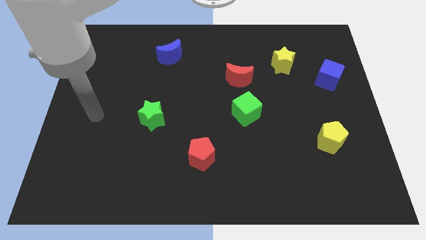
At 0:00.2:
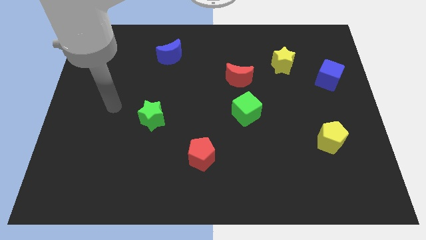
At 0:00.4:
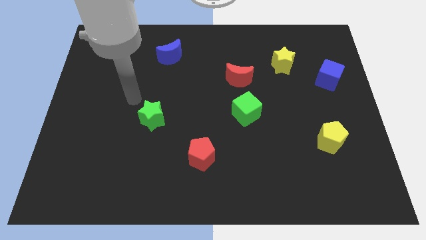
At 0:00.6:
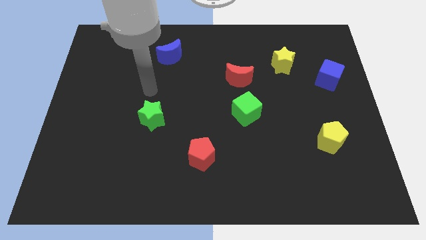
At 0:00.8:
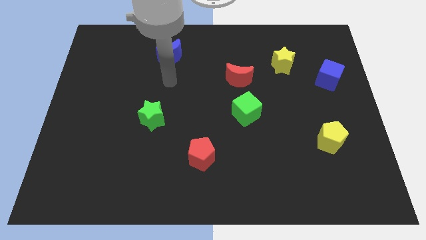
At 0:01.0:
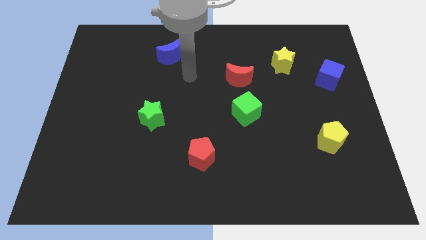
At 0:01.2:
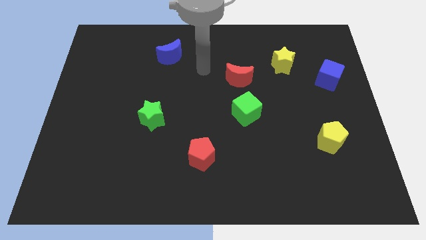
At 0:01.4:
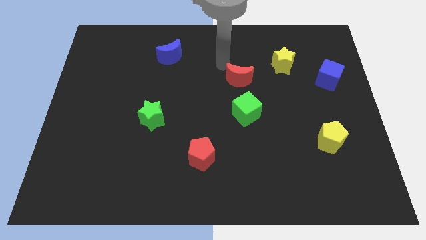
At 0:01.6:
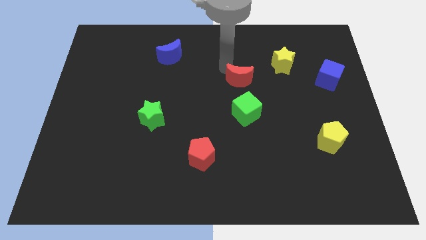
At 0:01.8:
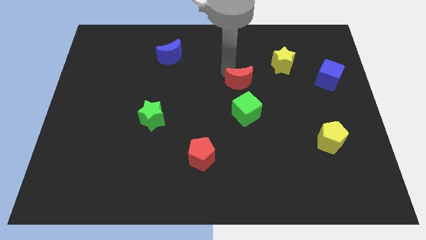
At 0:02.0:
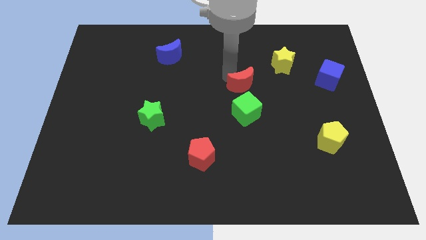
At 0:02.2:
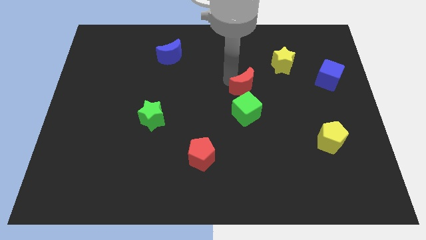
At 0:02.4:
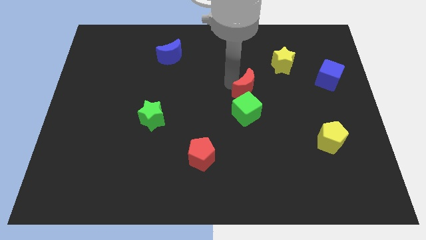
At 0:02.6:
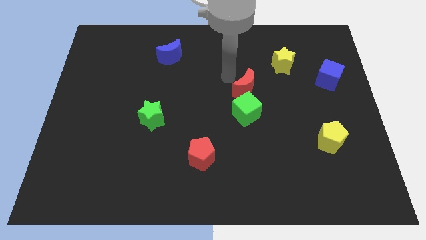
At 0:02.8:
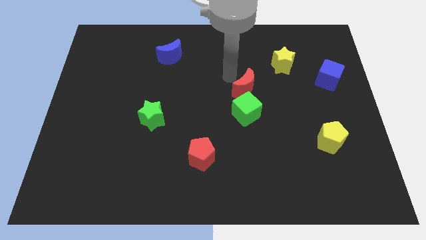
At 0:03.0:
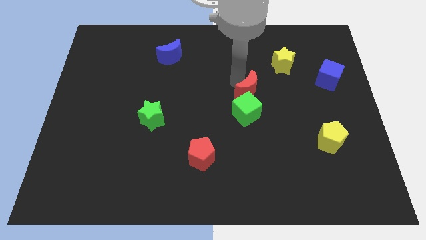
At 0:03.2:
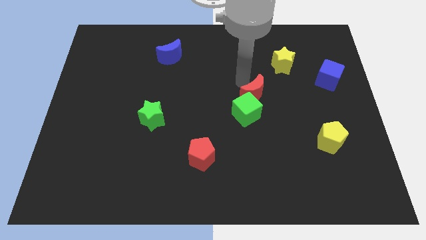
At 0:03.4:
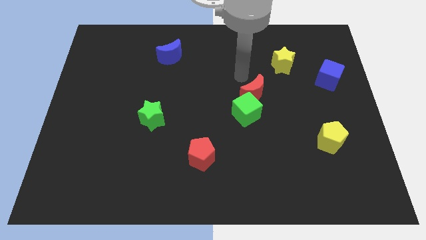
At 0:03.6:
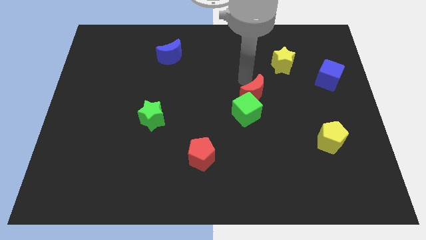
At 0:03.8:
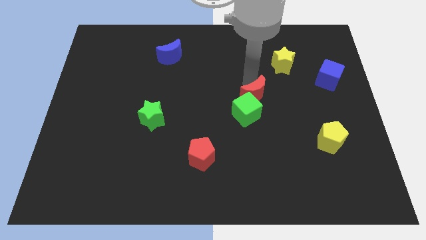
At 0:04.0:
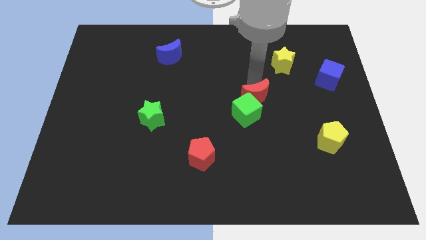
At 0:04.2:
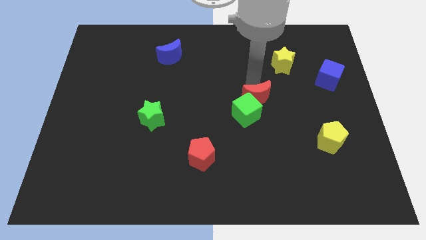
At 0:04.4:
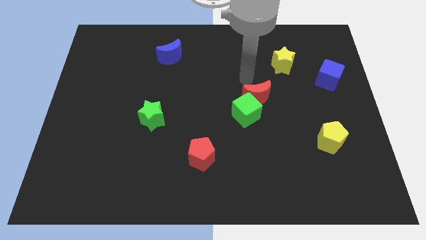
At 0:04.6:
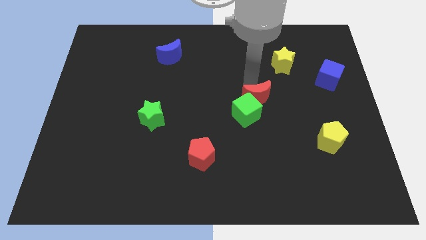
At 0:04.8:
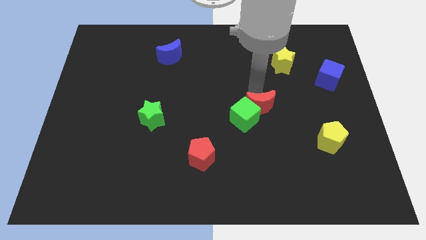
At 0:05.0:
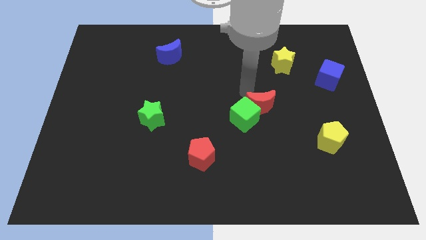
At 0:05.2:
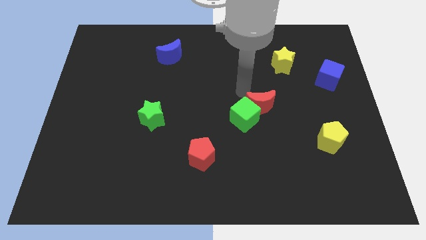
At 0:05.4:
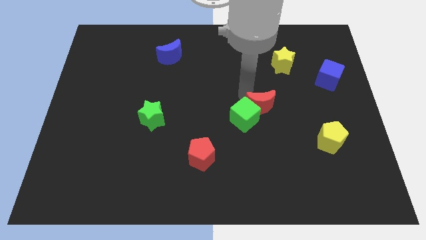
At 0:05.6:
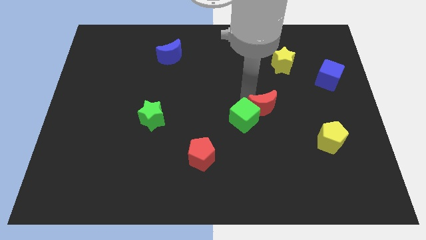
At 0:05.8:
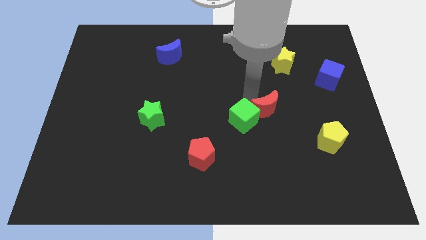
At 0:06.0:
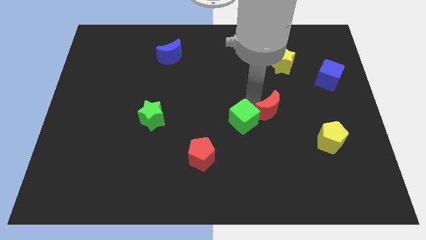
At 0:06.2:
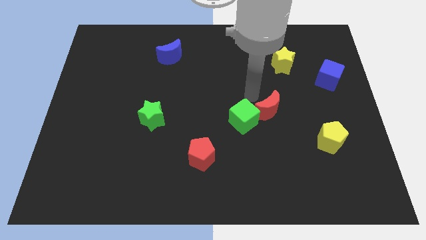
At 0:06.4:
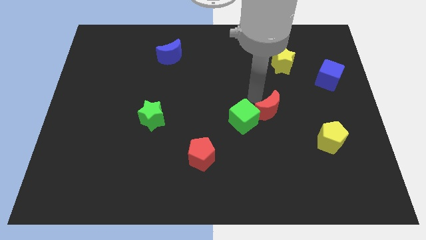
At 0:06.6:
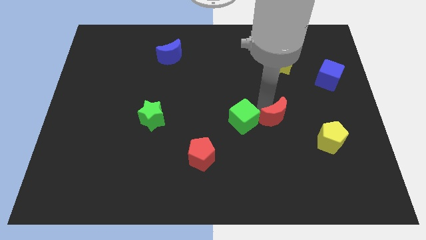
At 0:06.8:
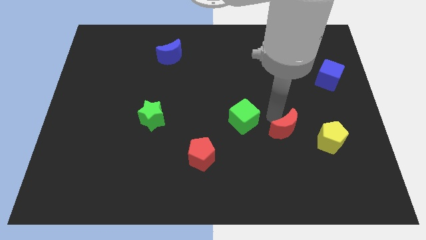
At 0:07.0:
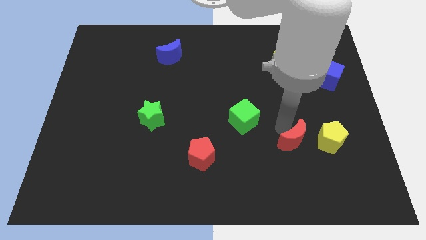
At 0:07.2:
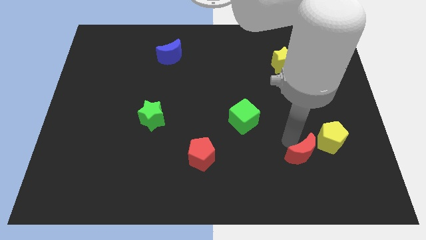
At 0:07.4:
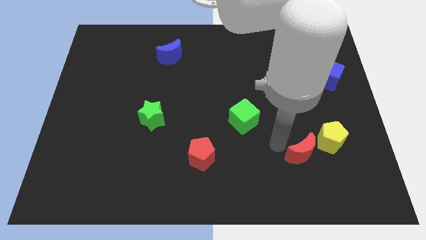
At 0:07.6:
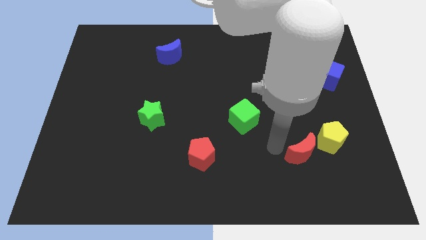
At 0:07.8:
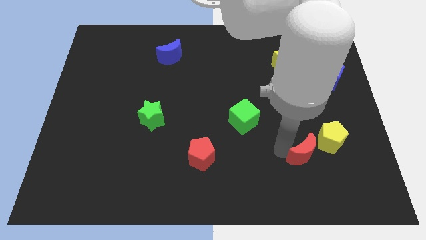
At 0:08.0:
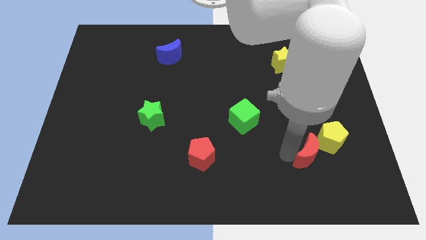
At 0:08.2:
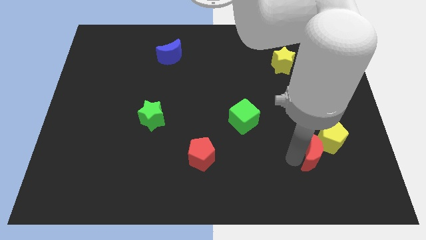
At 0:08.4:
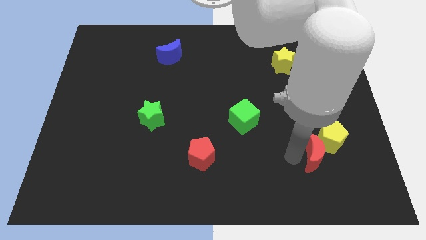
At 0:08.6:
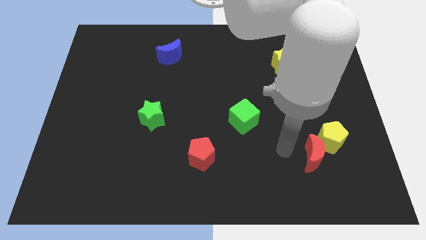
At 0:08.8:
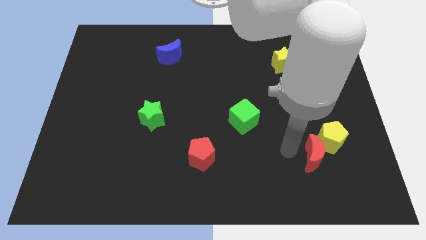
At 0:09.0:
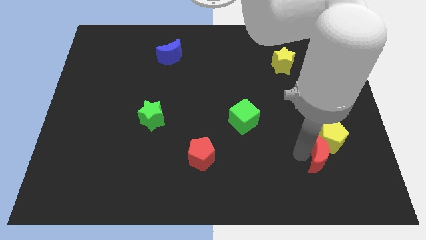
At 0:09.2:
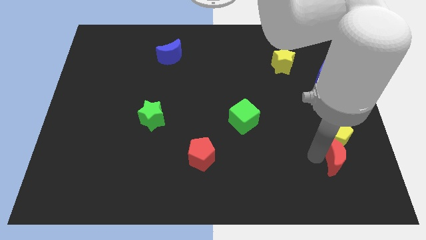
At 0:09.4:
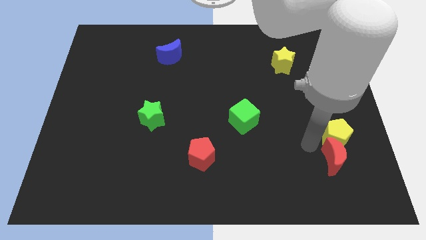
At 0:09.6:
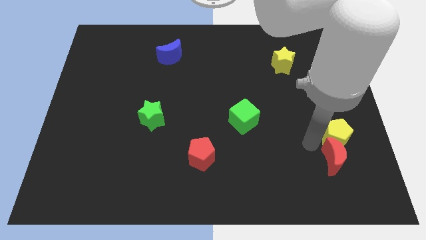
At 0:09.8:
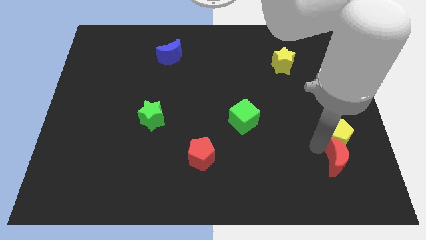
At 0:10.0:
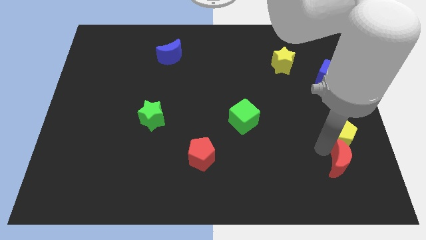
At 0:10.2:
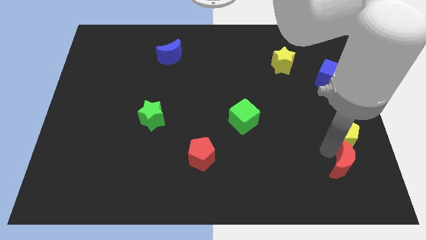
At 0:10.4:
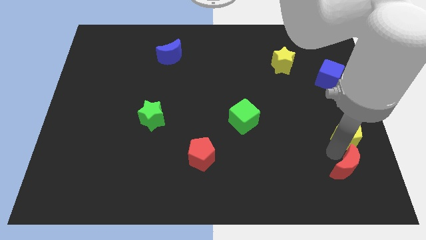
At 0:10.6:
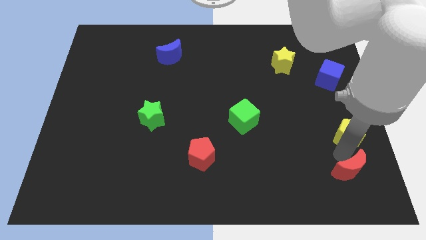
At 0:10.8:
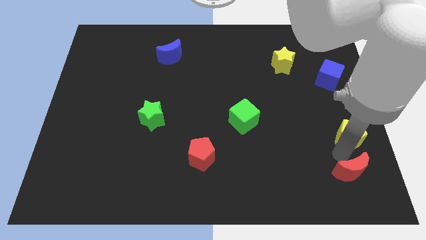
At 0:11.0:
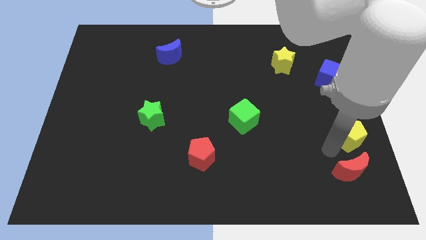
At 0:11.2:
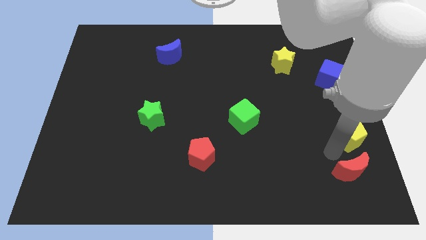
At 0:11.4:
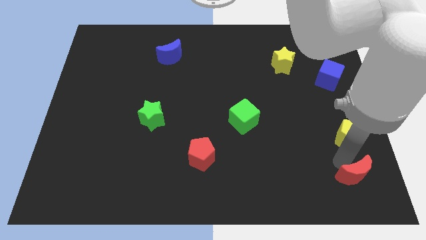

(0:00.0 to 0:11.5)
slide the red moon to the bottom right of the board

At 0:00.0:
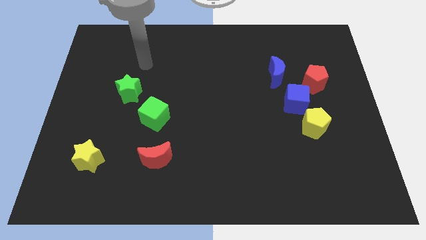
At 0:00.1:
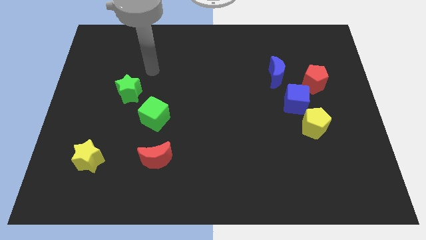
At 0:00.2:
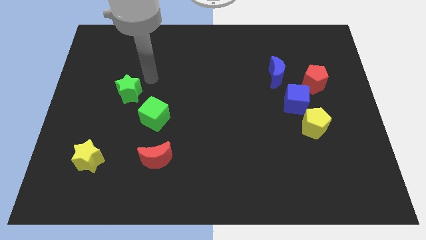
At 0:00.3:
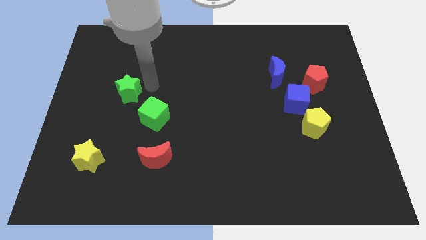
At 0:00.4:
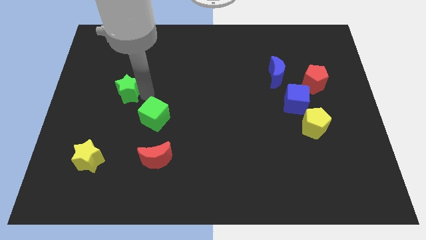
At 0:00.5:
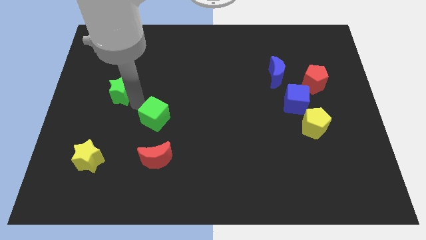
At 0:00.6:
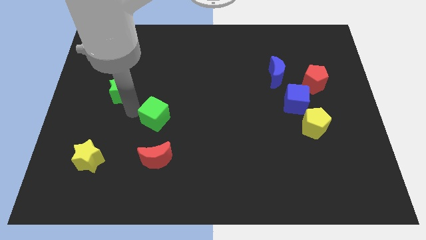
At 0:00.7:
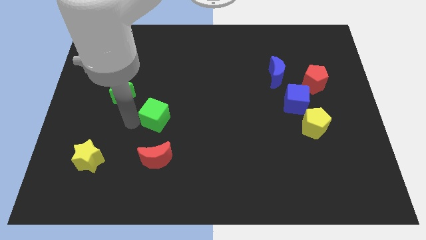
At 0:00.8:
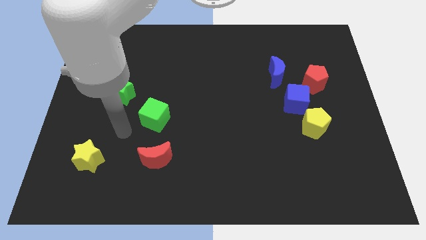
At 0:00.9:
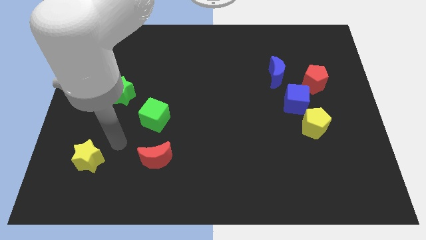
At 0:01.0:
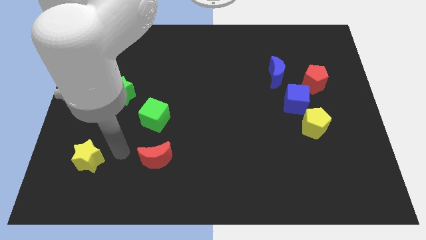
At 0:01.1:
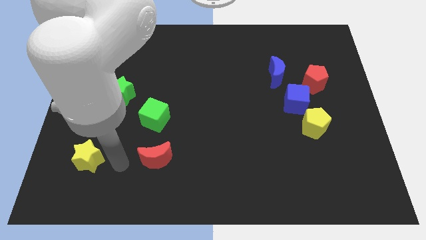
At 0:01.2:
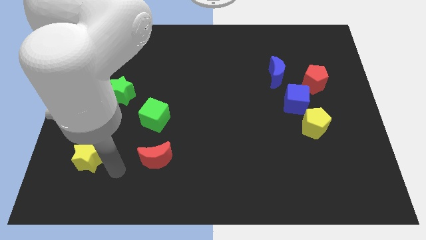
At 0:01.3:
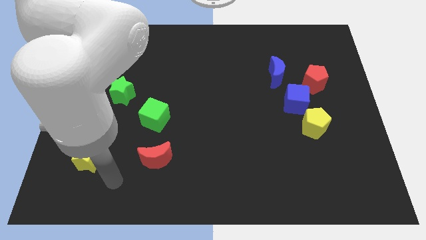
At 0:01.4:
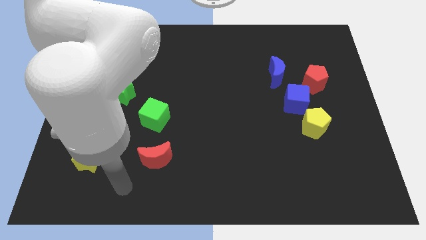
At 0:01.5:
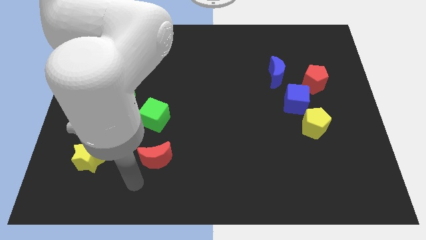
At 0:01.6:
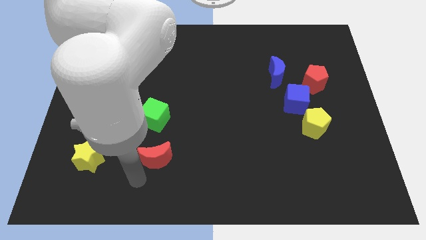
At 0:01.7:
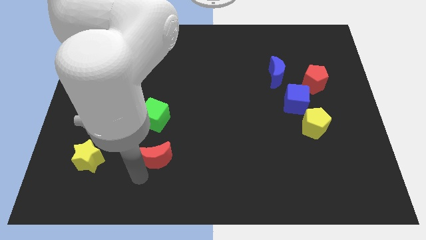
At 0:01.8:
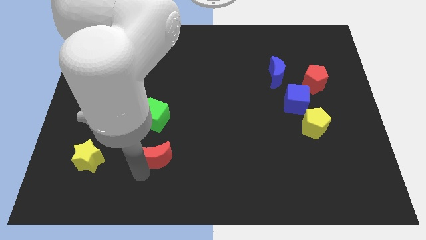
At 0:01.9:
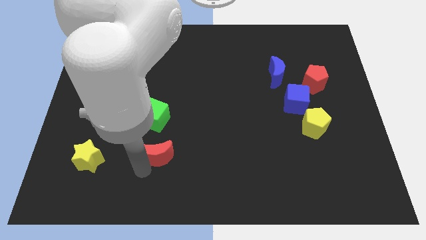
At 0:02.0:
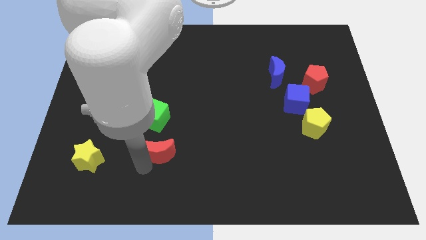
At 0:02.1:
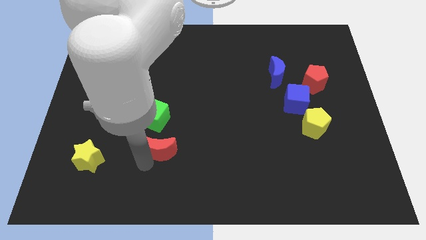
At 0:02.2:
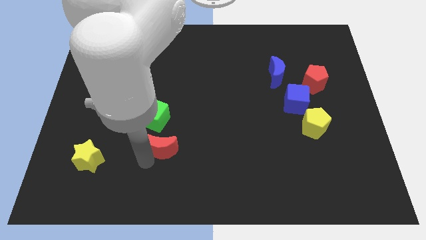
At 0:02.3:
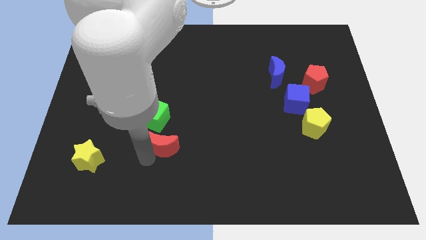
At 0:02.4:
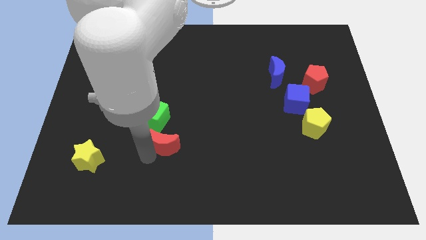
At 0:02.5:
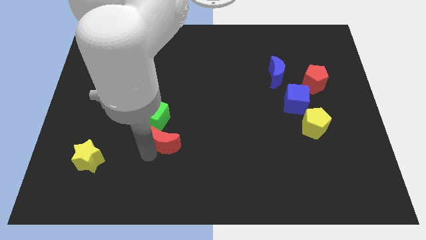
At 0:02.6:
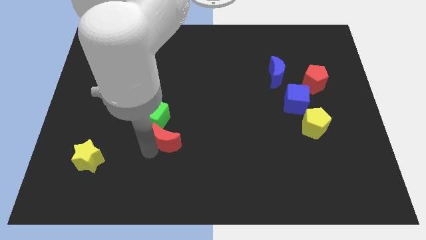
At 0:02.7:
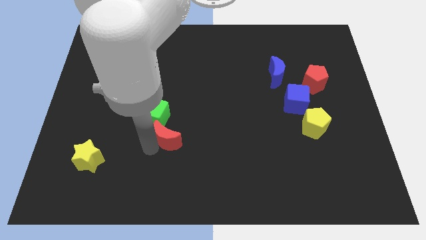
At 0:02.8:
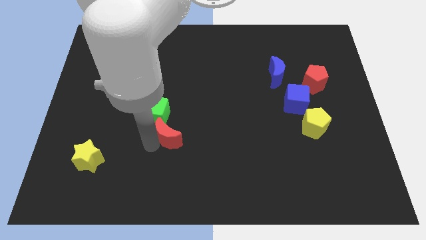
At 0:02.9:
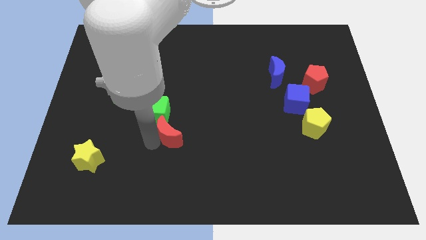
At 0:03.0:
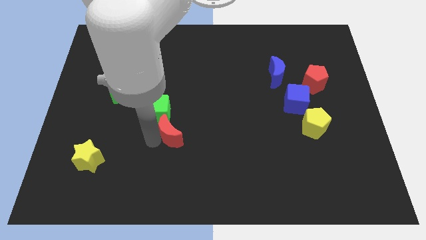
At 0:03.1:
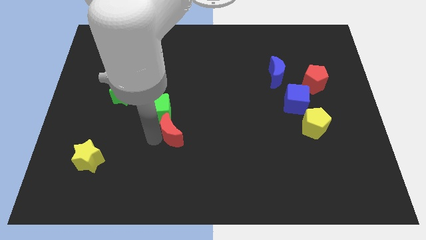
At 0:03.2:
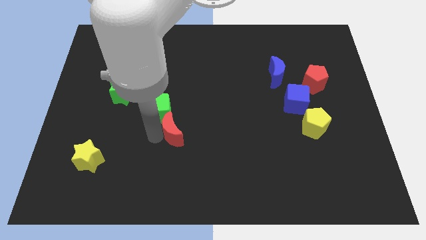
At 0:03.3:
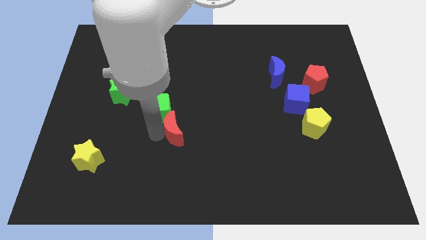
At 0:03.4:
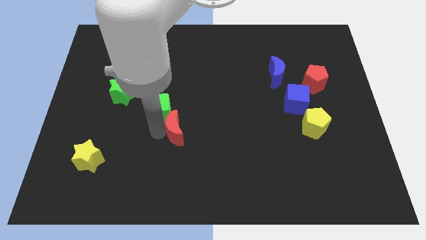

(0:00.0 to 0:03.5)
put the red moon to the middle of the board
